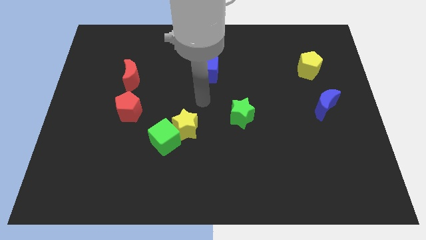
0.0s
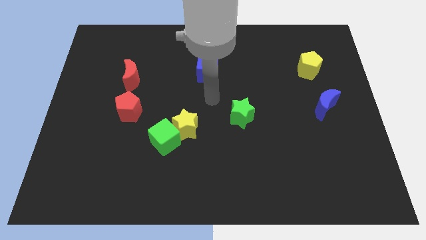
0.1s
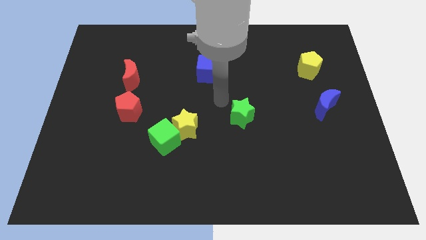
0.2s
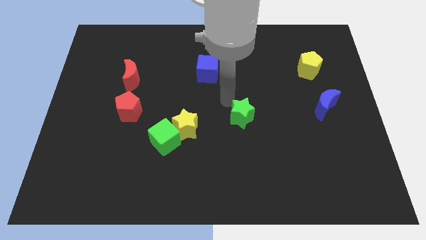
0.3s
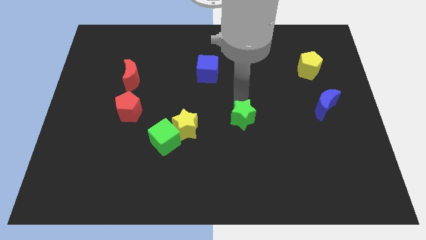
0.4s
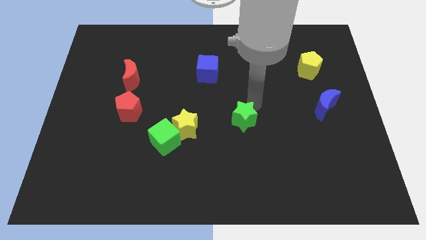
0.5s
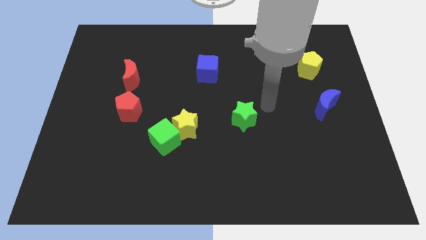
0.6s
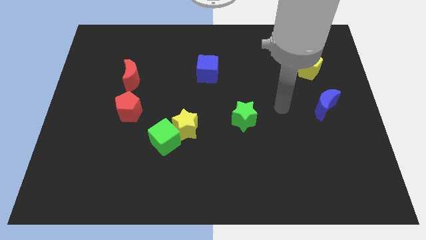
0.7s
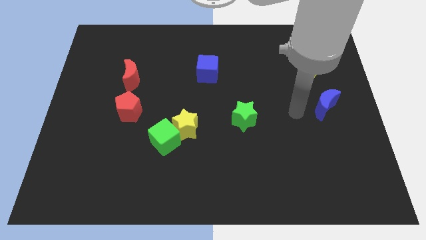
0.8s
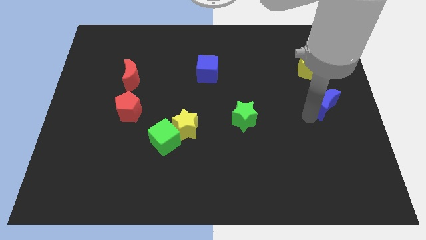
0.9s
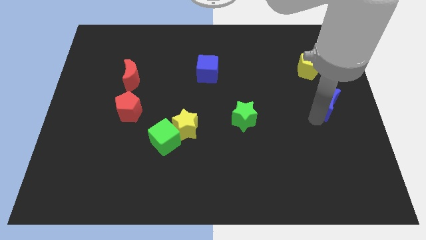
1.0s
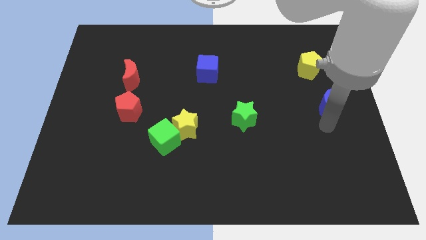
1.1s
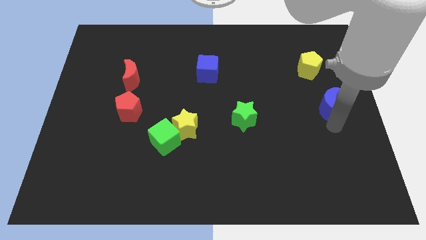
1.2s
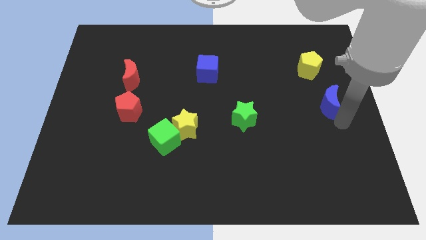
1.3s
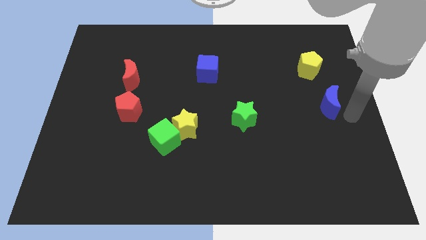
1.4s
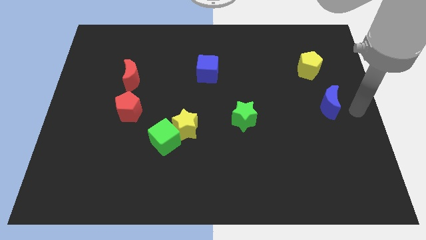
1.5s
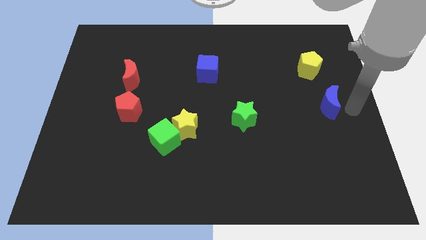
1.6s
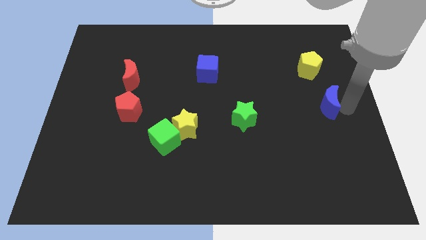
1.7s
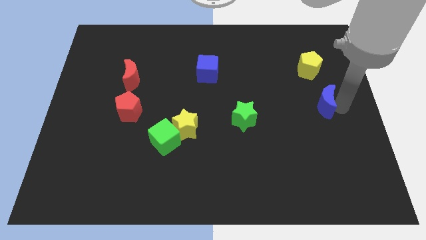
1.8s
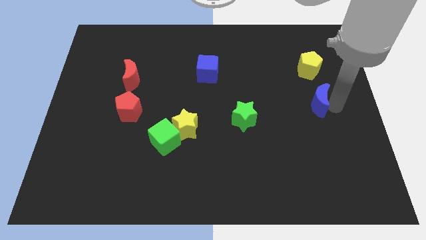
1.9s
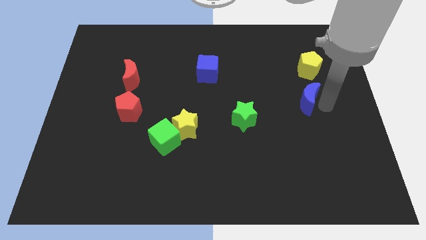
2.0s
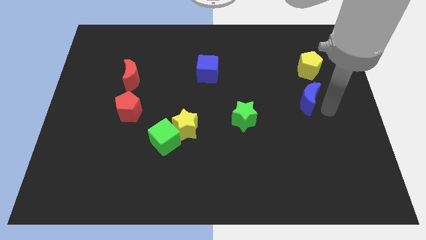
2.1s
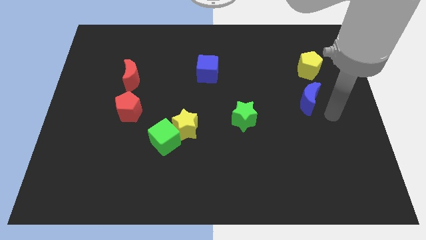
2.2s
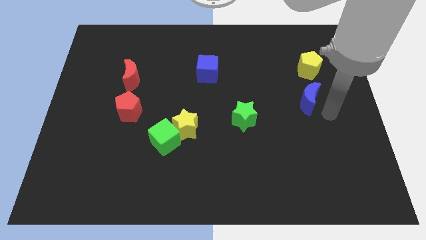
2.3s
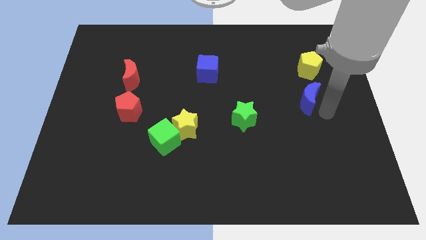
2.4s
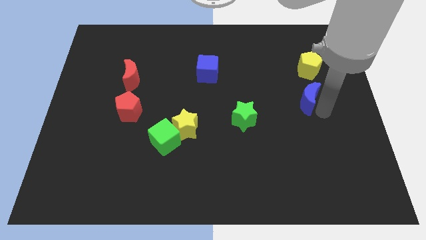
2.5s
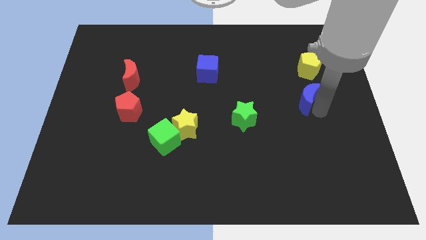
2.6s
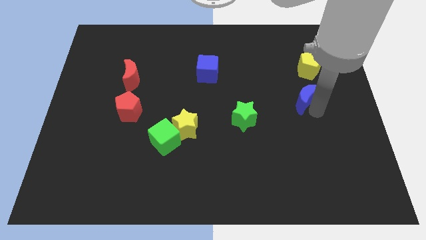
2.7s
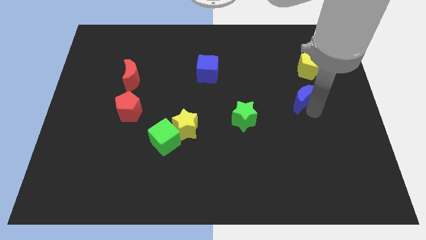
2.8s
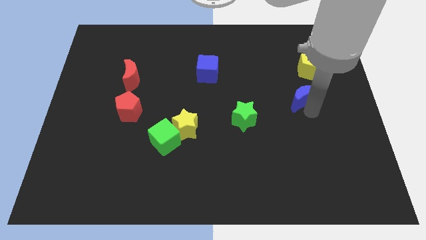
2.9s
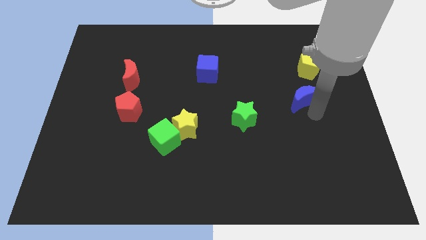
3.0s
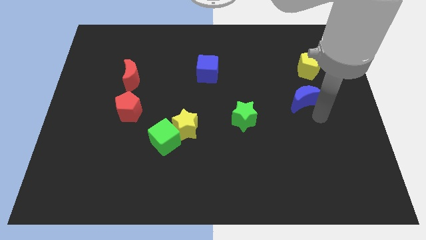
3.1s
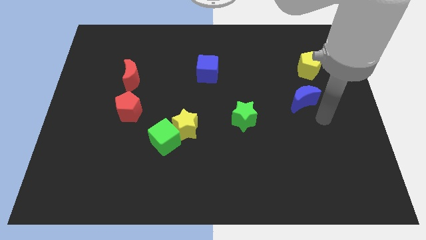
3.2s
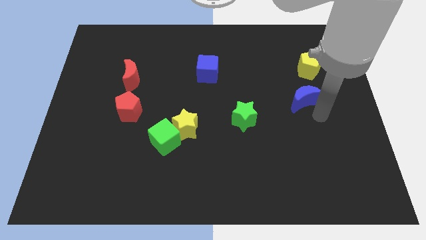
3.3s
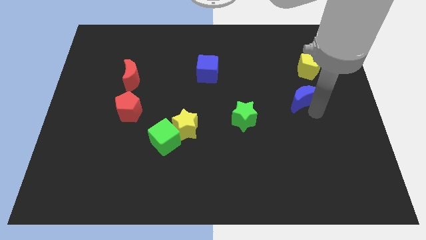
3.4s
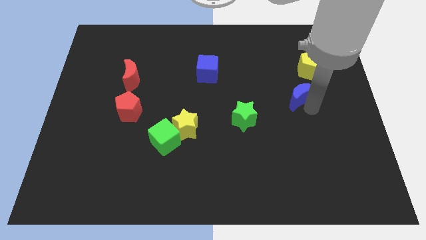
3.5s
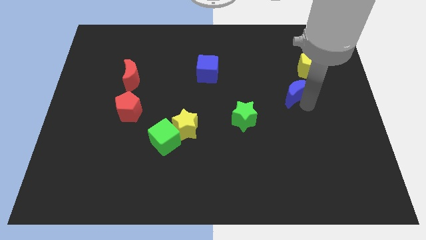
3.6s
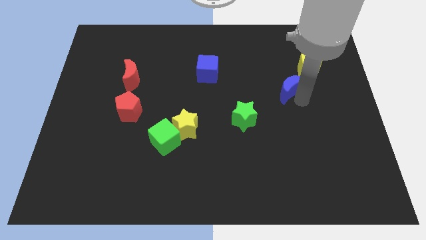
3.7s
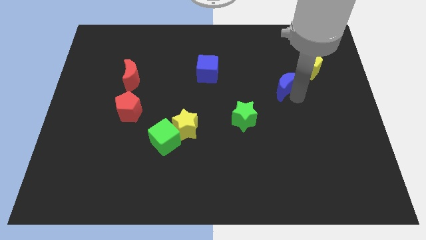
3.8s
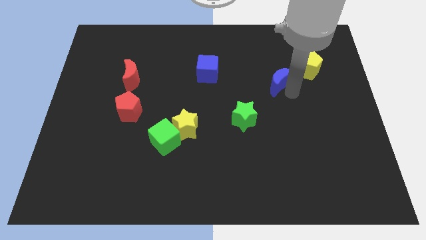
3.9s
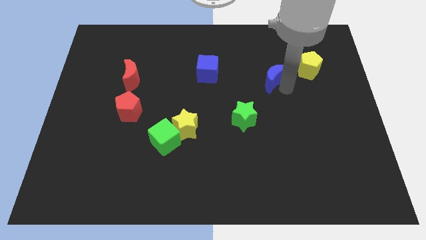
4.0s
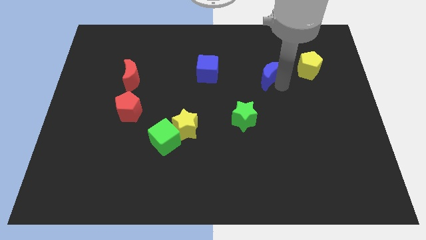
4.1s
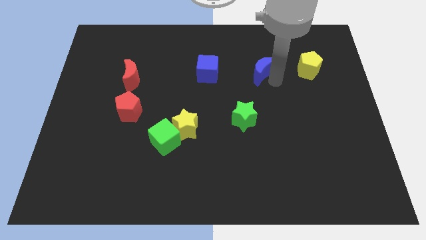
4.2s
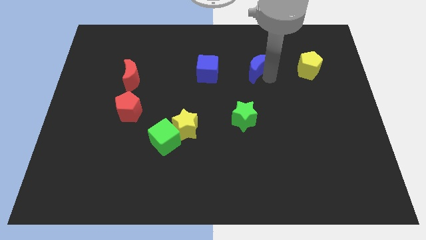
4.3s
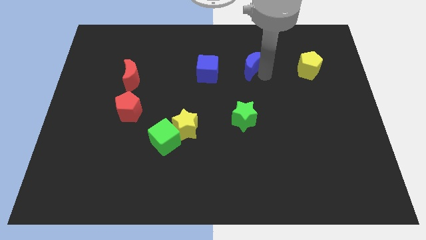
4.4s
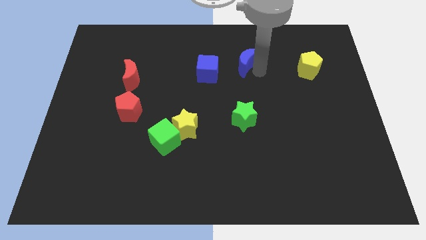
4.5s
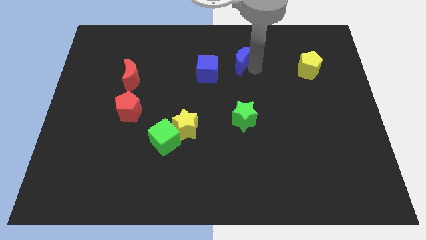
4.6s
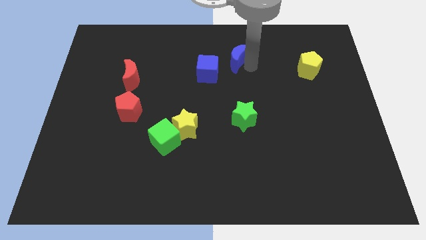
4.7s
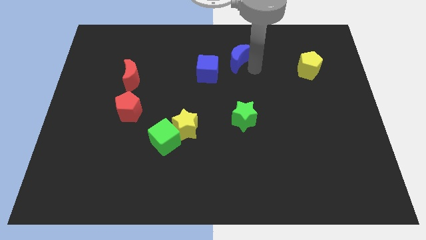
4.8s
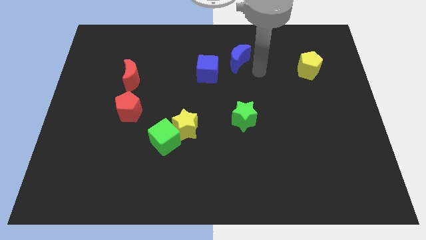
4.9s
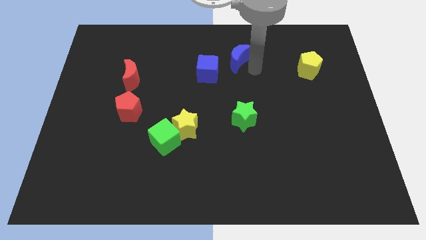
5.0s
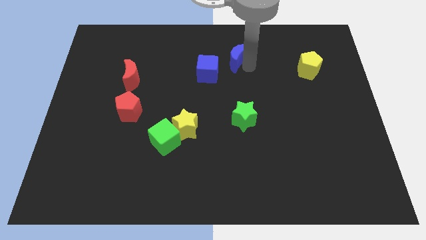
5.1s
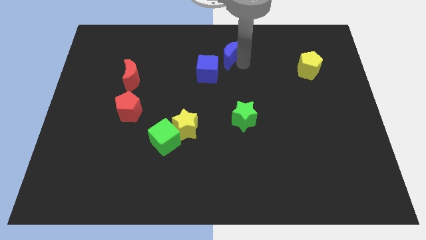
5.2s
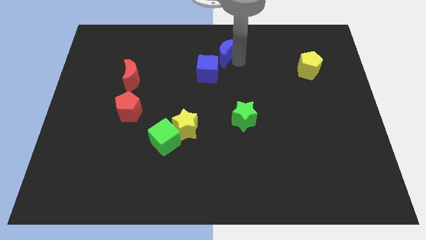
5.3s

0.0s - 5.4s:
put the blue moon to the top side

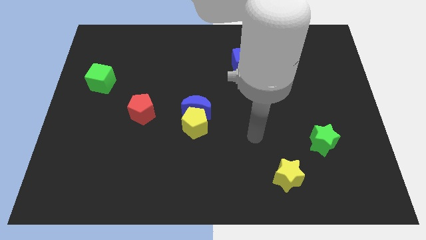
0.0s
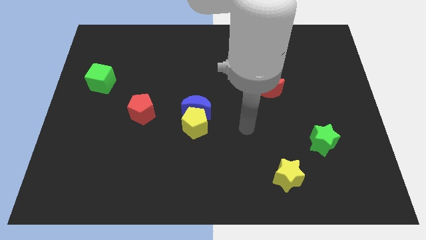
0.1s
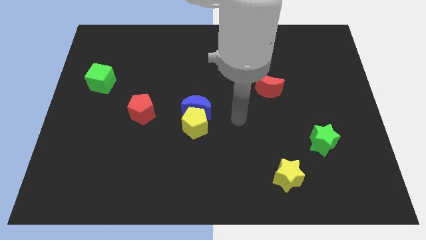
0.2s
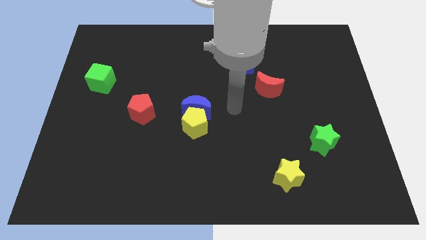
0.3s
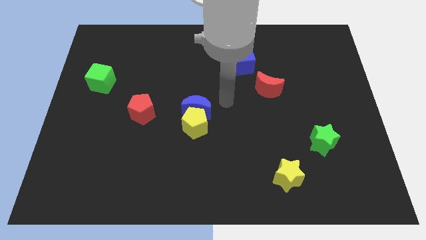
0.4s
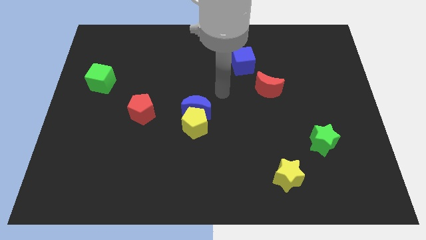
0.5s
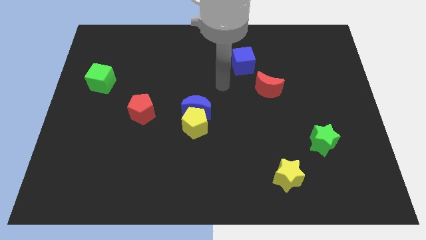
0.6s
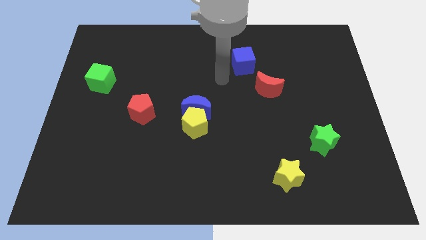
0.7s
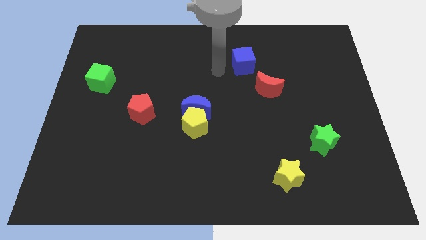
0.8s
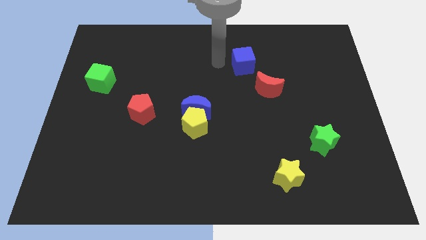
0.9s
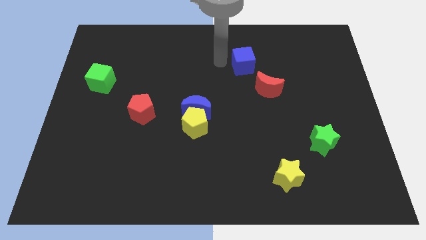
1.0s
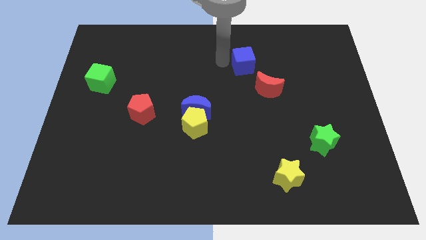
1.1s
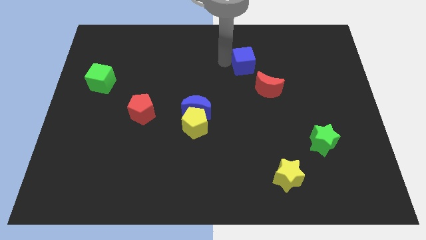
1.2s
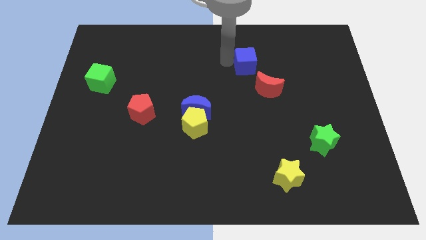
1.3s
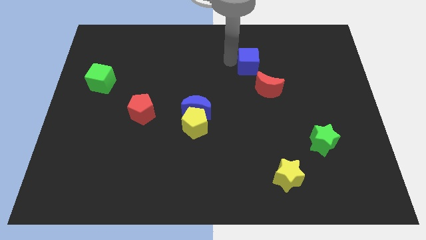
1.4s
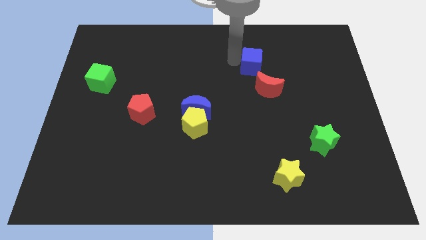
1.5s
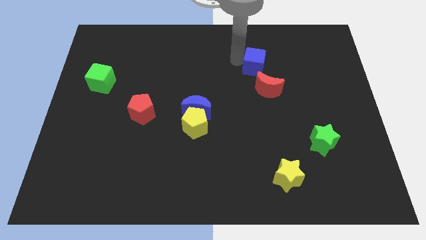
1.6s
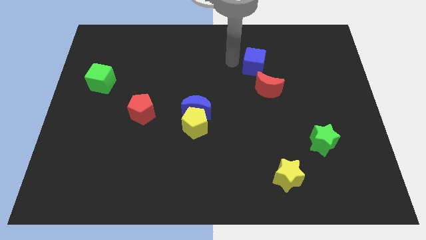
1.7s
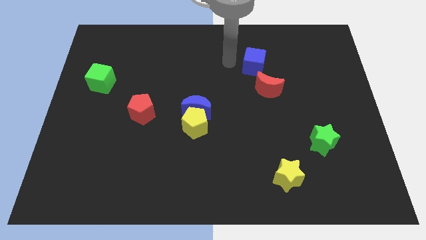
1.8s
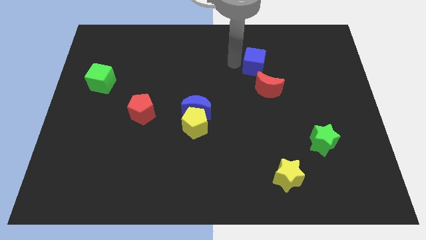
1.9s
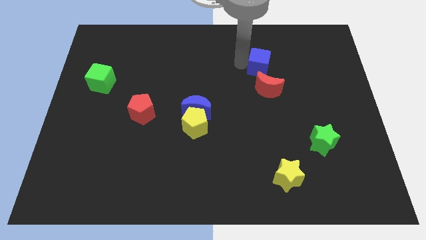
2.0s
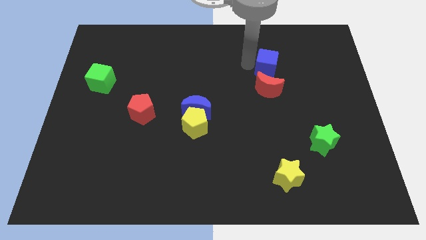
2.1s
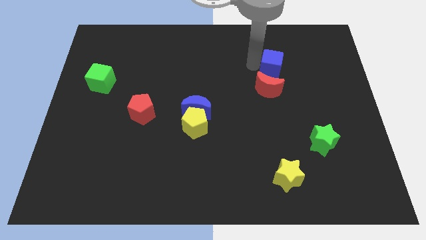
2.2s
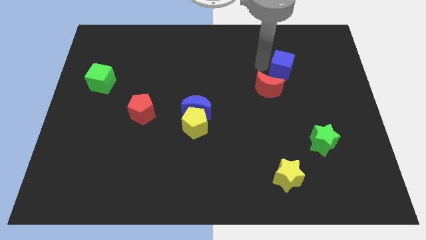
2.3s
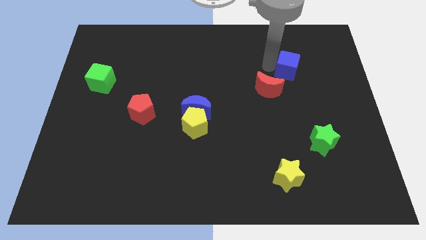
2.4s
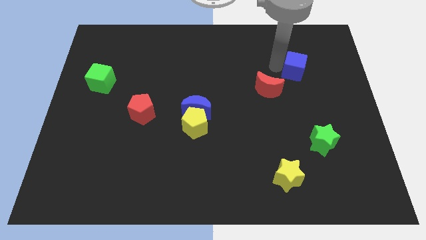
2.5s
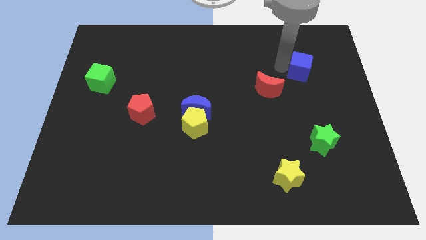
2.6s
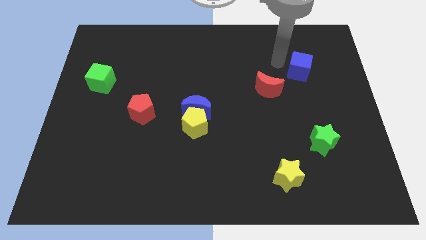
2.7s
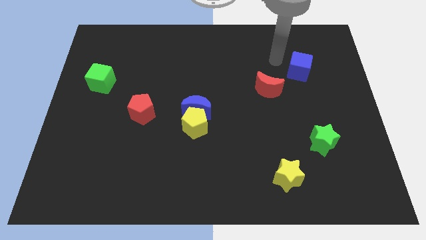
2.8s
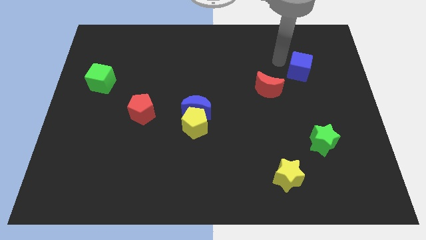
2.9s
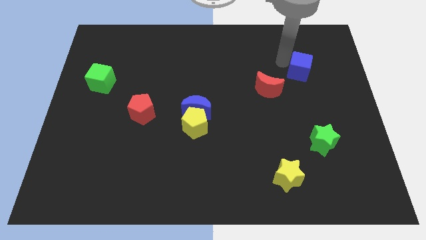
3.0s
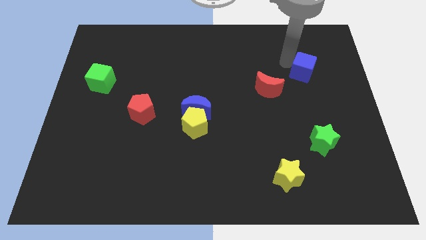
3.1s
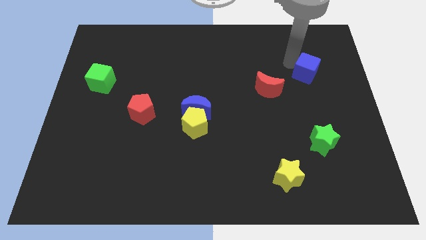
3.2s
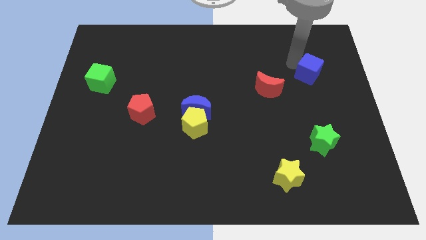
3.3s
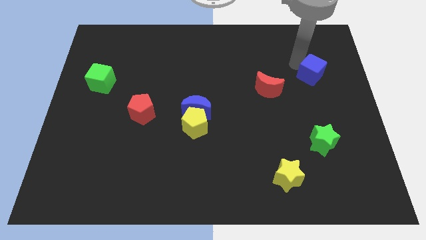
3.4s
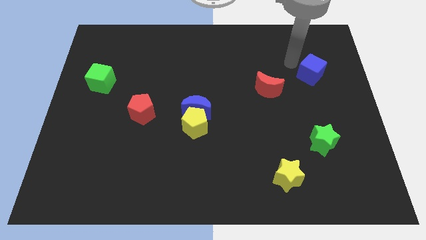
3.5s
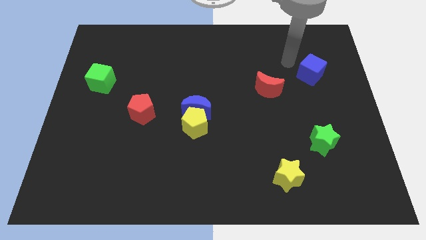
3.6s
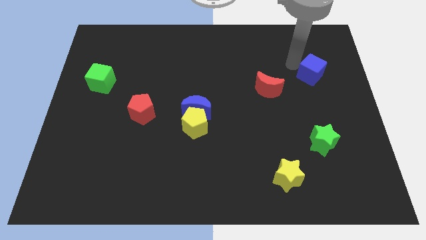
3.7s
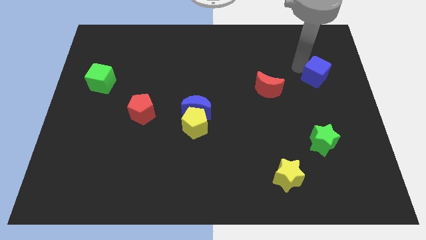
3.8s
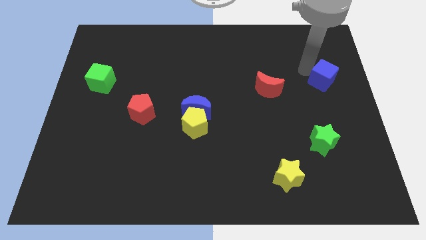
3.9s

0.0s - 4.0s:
slide the blue cube to the center right
